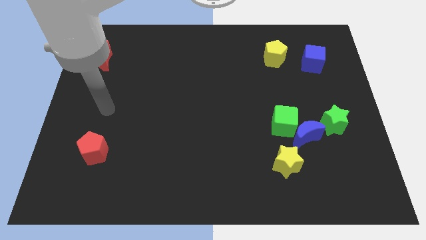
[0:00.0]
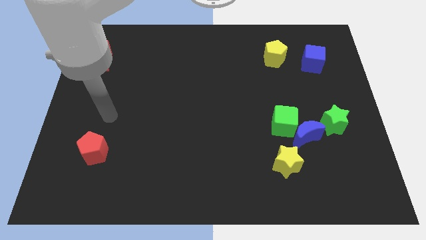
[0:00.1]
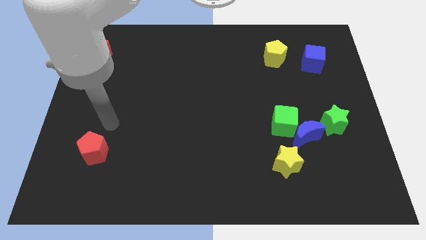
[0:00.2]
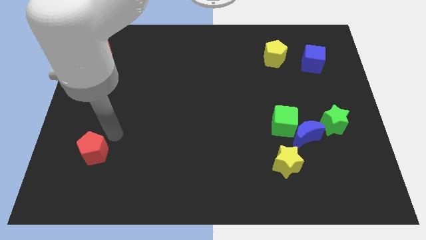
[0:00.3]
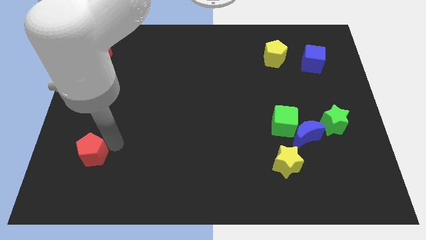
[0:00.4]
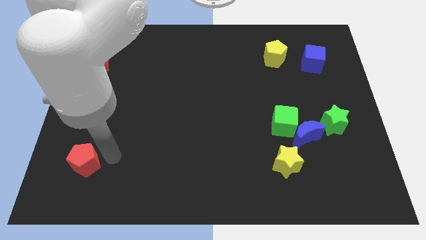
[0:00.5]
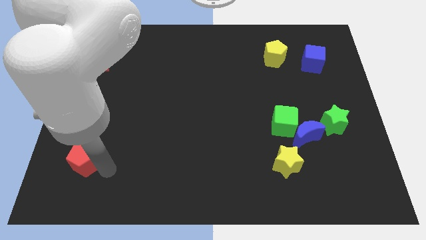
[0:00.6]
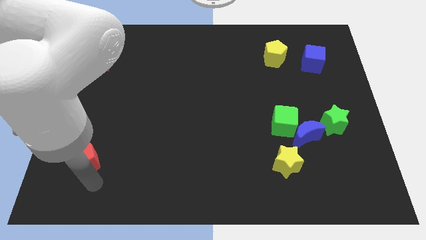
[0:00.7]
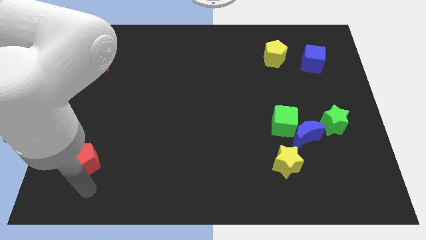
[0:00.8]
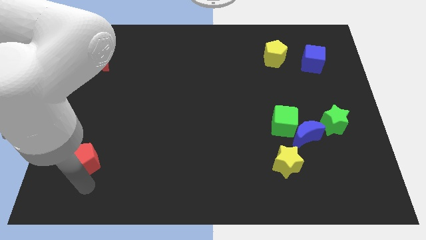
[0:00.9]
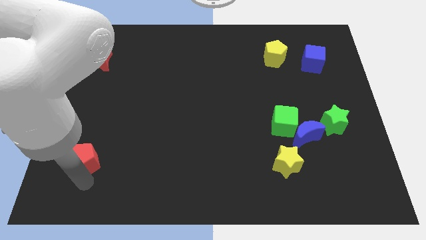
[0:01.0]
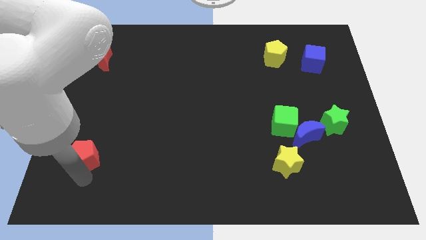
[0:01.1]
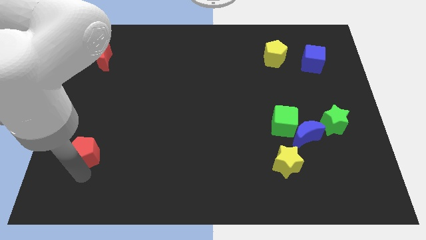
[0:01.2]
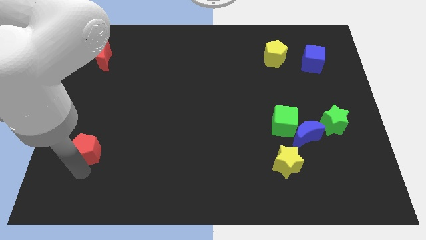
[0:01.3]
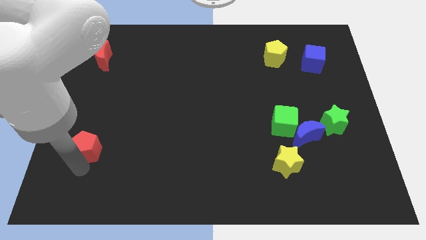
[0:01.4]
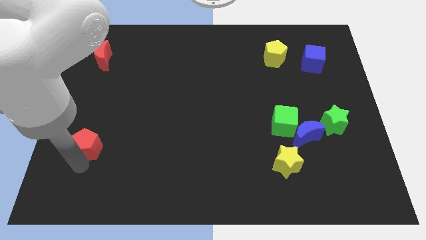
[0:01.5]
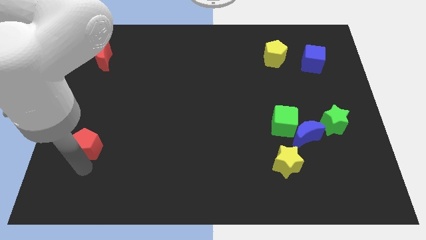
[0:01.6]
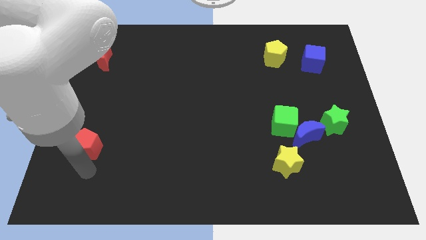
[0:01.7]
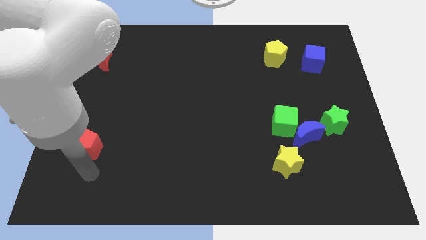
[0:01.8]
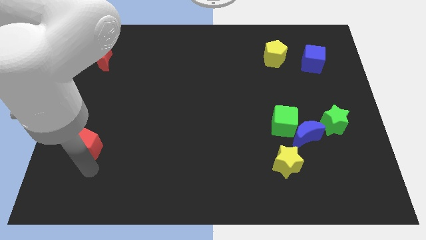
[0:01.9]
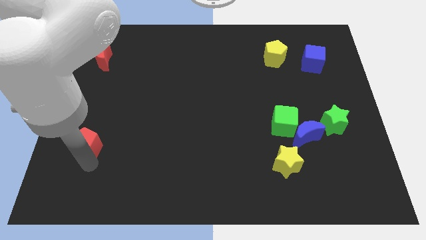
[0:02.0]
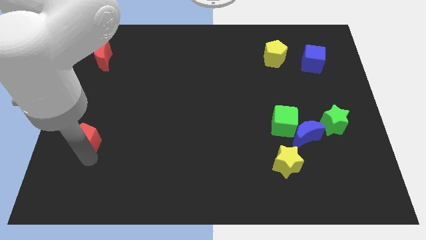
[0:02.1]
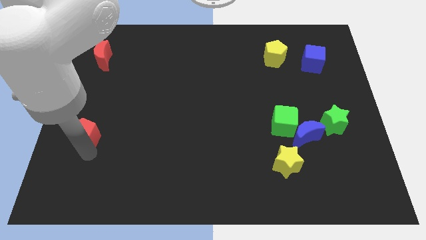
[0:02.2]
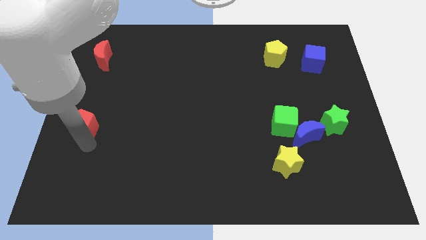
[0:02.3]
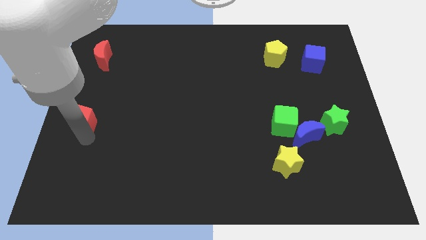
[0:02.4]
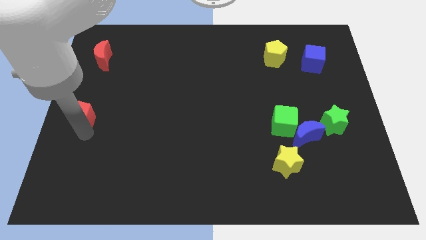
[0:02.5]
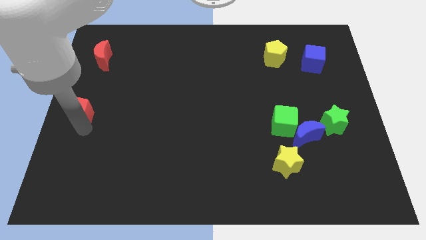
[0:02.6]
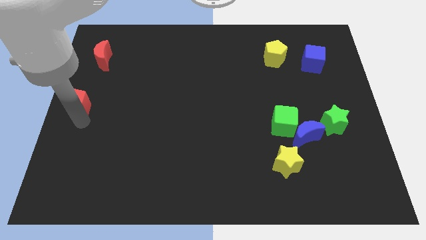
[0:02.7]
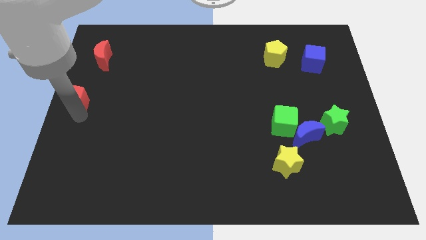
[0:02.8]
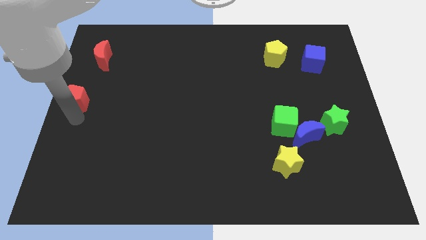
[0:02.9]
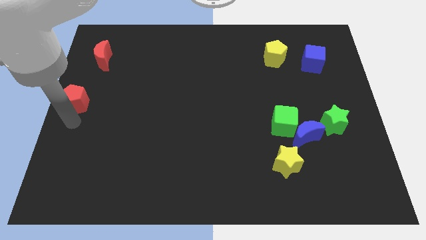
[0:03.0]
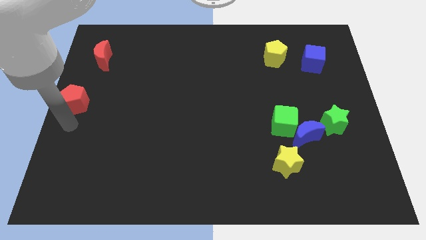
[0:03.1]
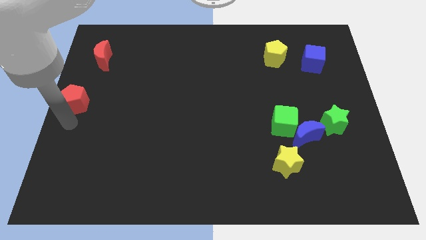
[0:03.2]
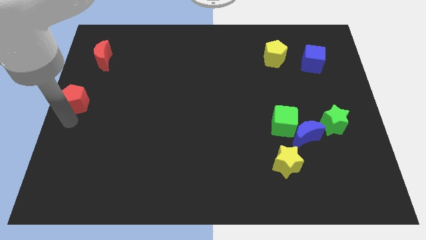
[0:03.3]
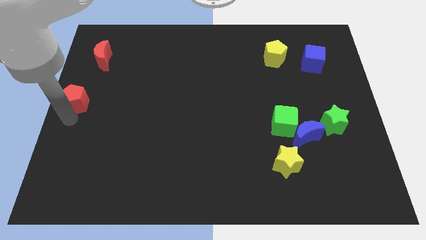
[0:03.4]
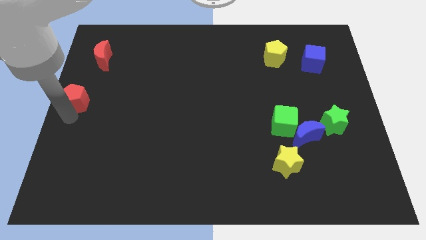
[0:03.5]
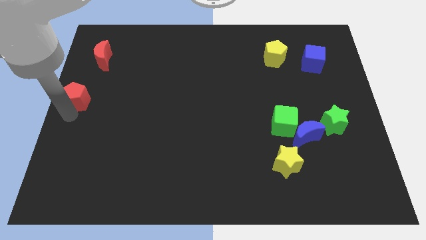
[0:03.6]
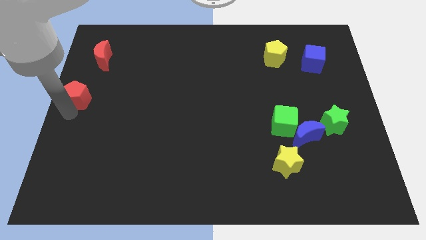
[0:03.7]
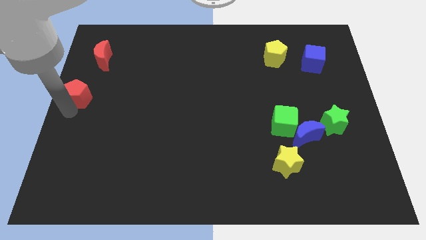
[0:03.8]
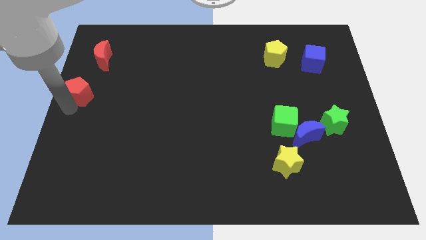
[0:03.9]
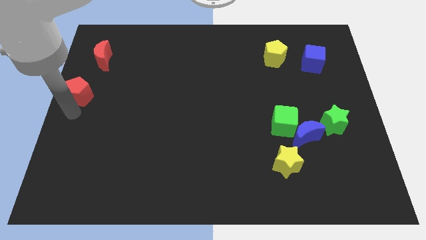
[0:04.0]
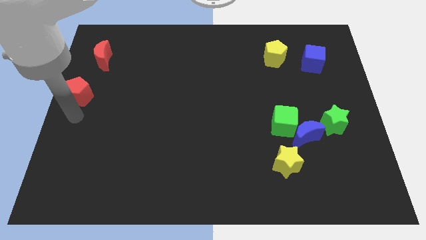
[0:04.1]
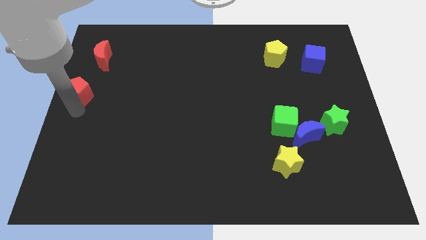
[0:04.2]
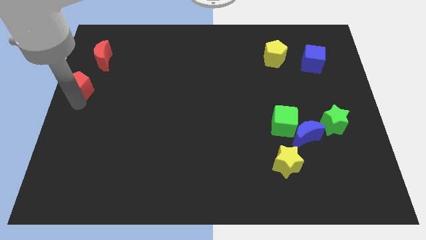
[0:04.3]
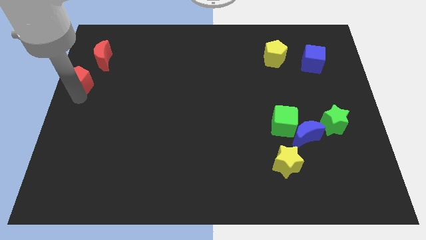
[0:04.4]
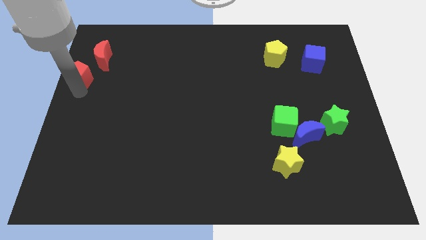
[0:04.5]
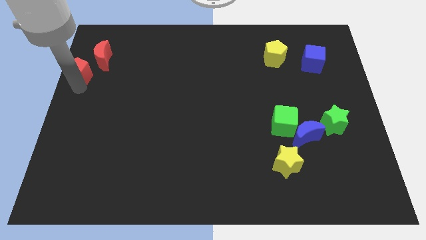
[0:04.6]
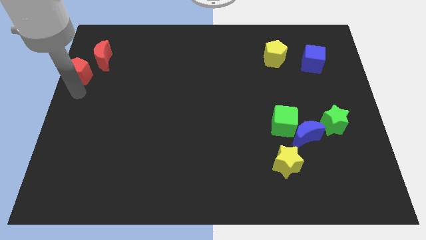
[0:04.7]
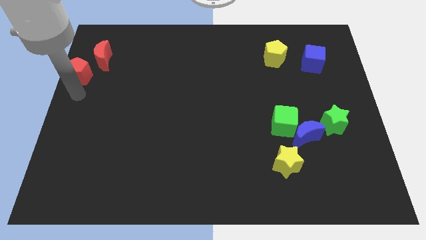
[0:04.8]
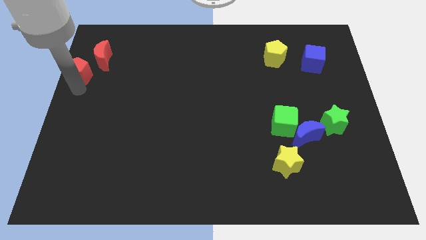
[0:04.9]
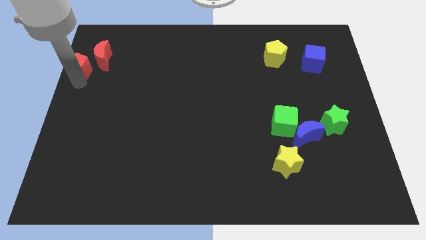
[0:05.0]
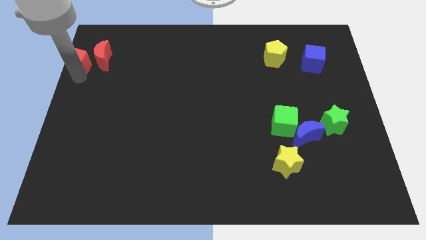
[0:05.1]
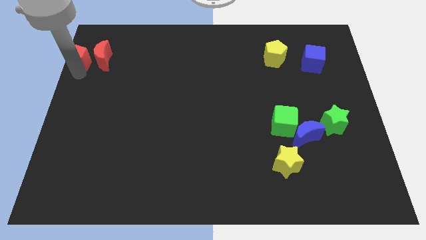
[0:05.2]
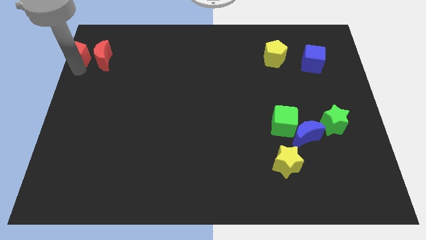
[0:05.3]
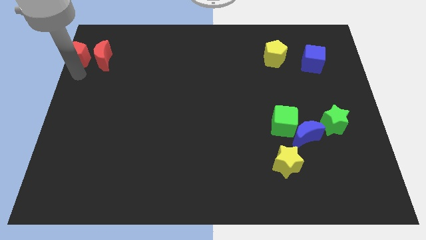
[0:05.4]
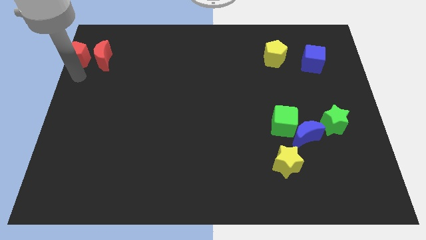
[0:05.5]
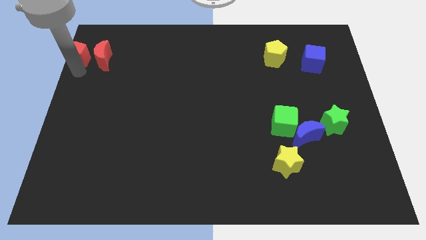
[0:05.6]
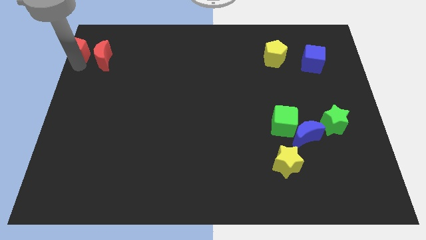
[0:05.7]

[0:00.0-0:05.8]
move the red pentagon to the top left corner
